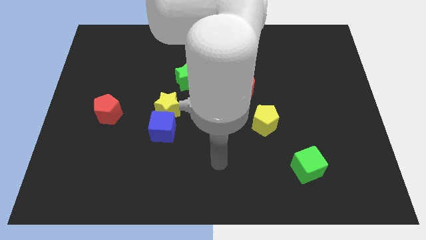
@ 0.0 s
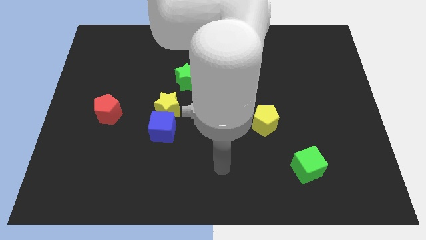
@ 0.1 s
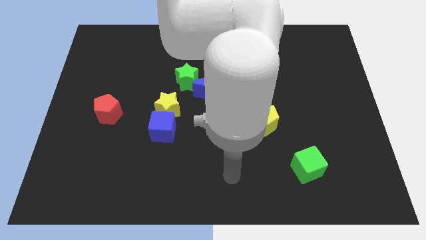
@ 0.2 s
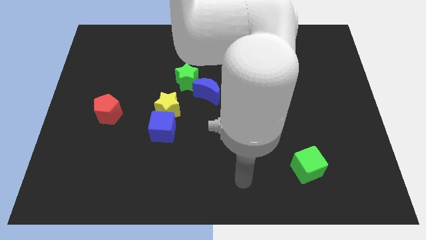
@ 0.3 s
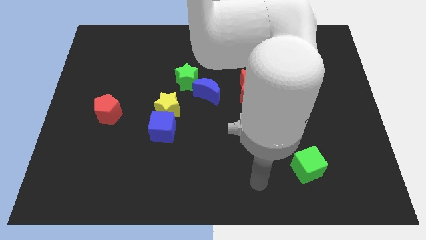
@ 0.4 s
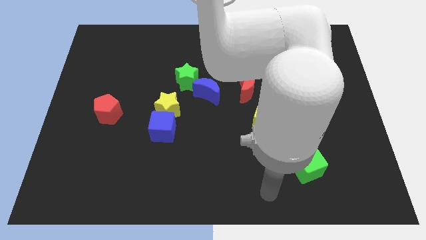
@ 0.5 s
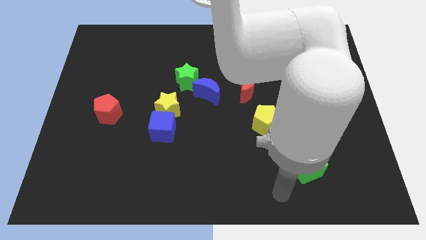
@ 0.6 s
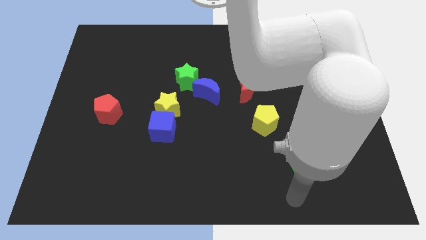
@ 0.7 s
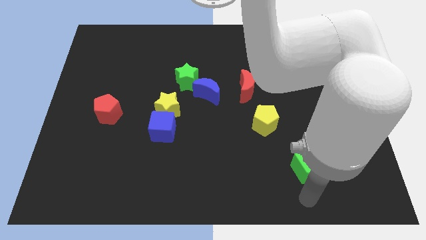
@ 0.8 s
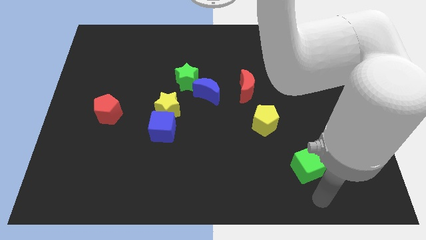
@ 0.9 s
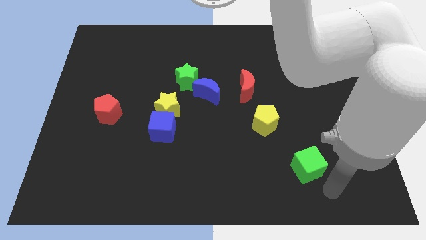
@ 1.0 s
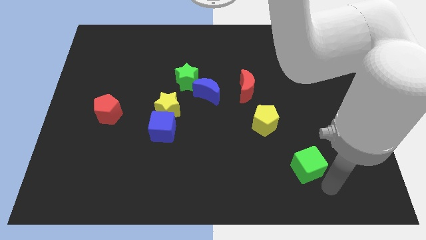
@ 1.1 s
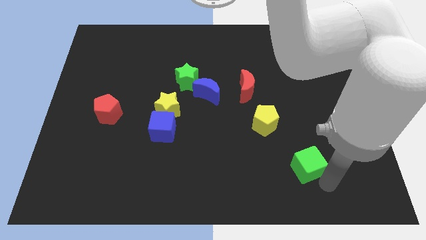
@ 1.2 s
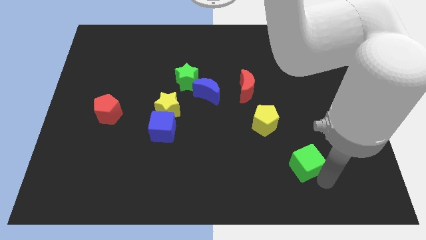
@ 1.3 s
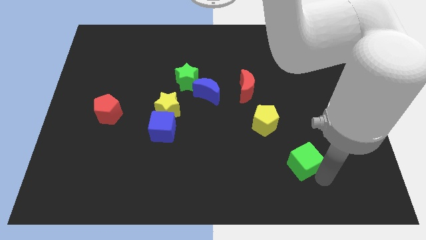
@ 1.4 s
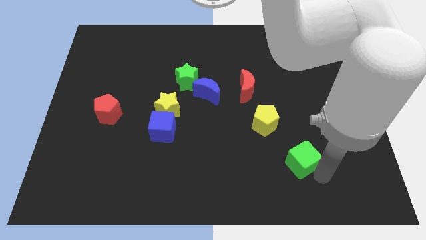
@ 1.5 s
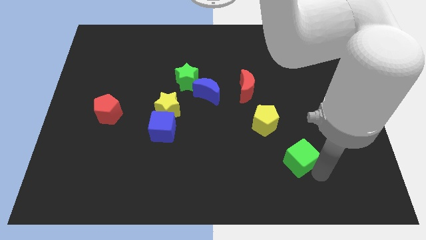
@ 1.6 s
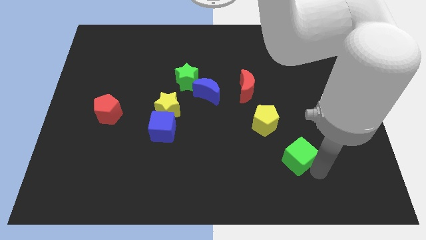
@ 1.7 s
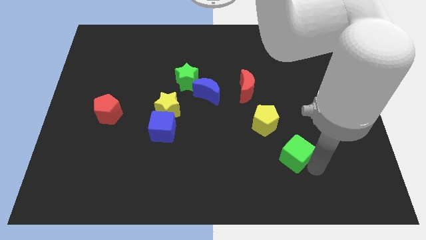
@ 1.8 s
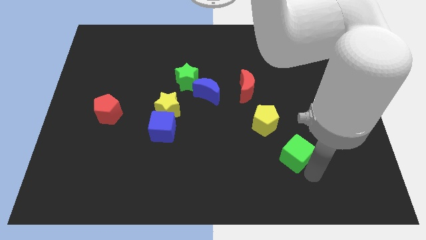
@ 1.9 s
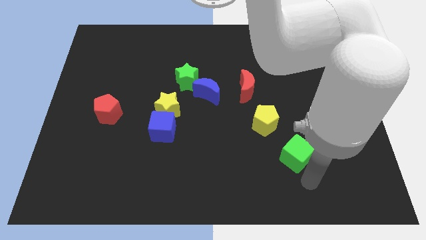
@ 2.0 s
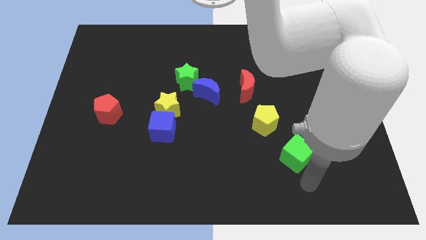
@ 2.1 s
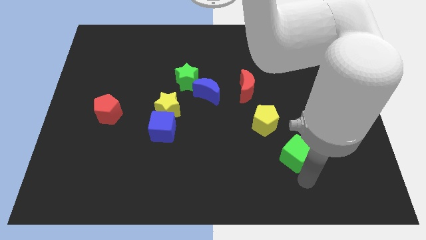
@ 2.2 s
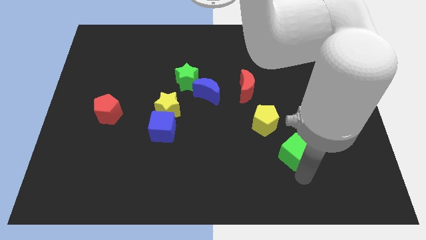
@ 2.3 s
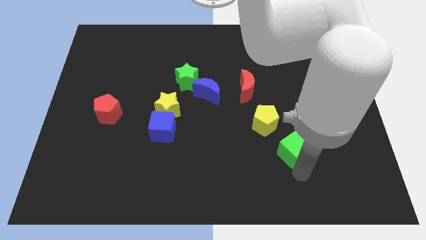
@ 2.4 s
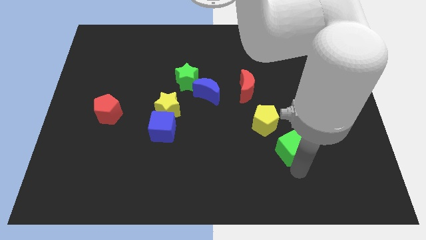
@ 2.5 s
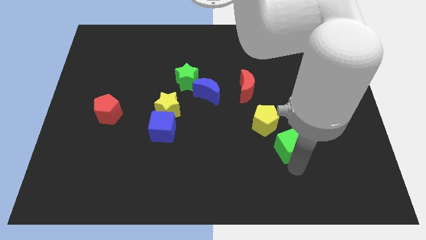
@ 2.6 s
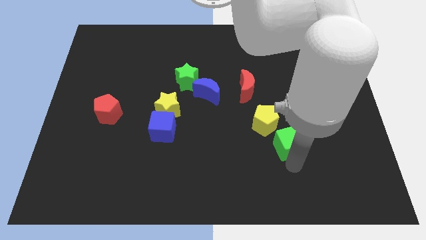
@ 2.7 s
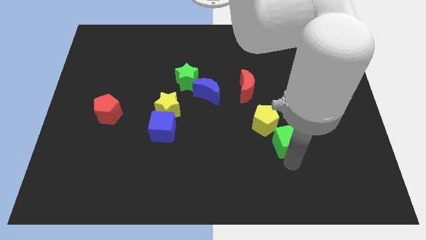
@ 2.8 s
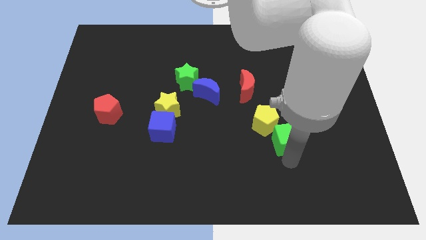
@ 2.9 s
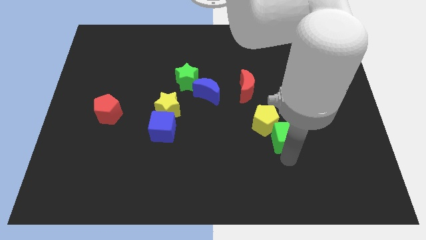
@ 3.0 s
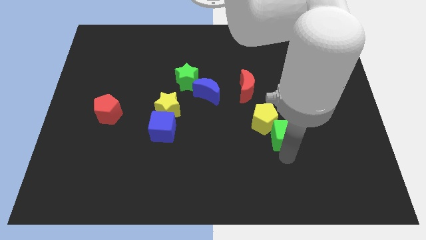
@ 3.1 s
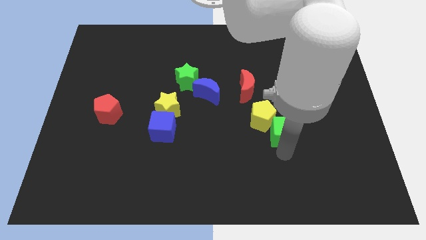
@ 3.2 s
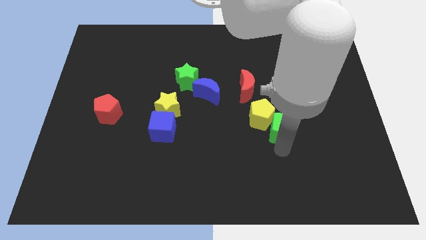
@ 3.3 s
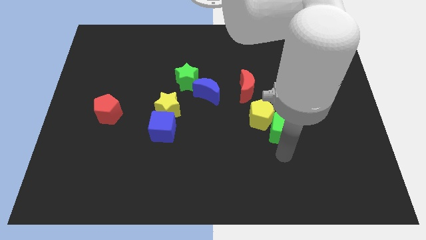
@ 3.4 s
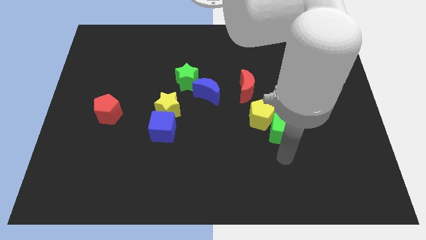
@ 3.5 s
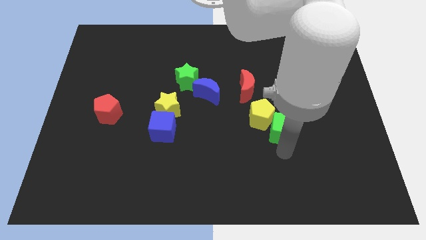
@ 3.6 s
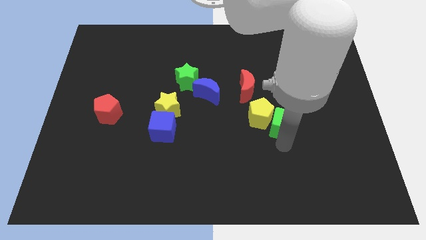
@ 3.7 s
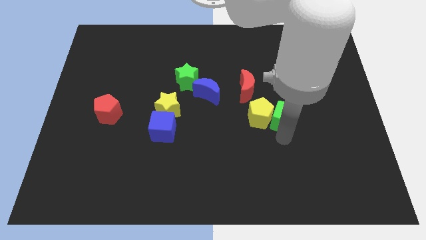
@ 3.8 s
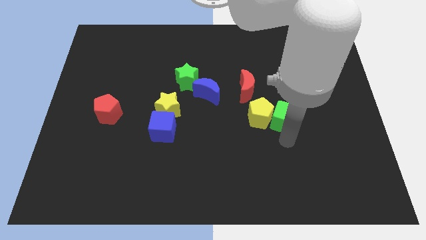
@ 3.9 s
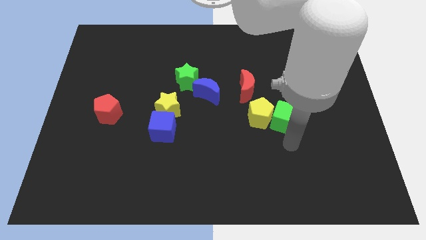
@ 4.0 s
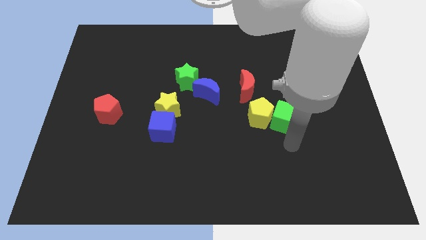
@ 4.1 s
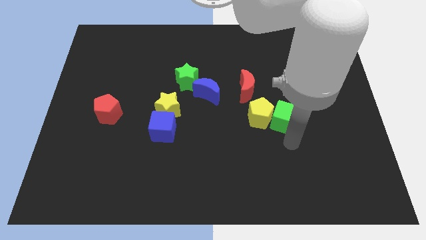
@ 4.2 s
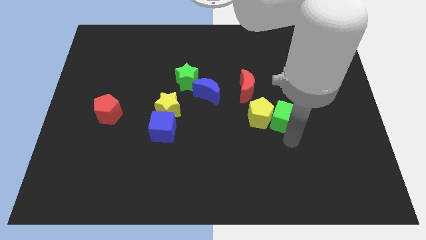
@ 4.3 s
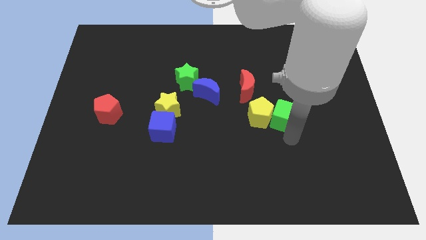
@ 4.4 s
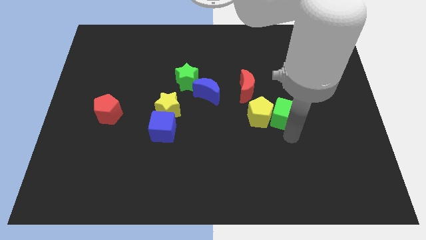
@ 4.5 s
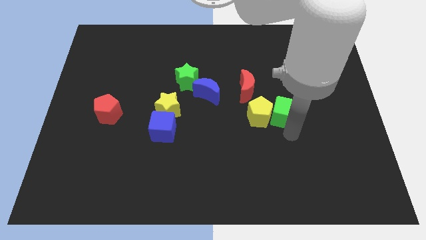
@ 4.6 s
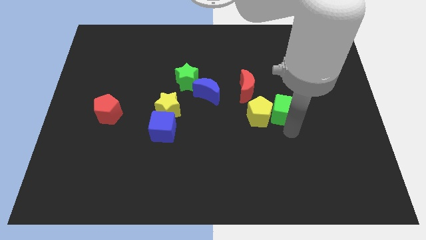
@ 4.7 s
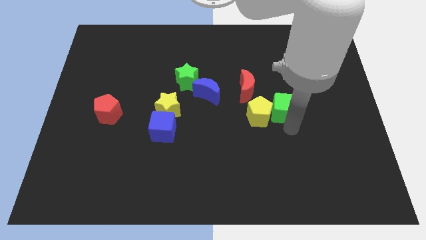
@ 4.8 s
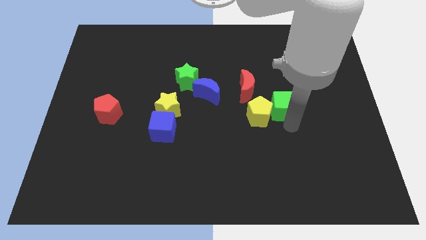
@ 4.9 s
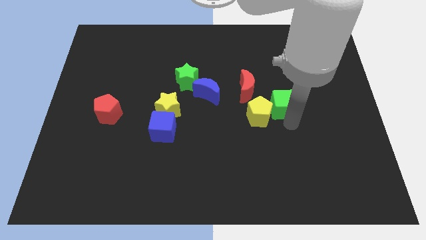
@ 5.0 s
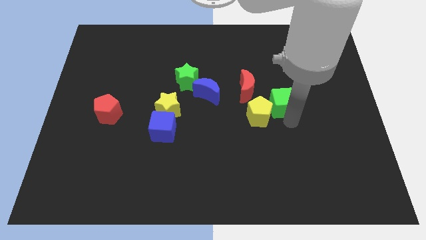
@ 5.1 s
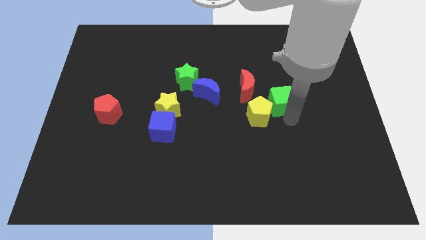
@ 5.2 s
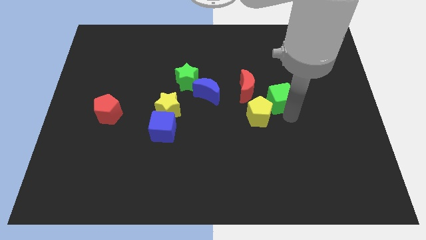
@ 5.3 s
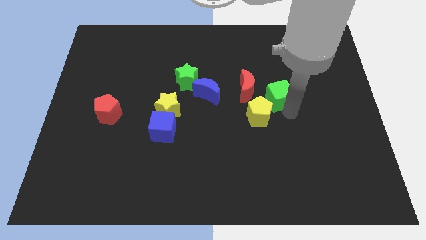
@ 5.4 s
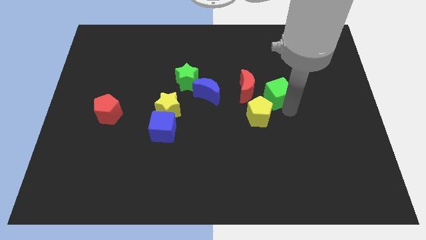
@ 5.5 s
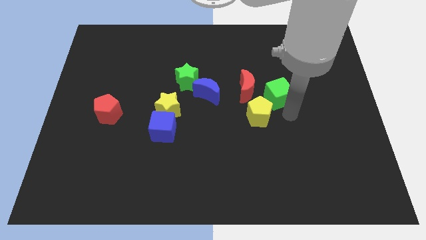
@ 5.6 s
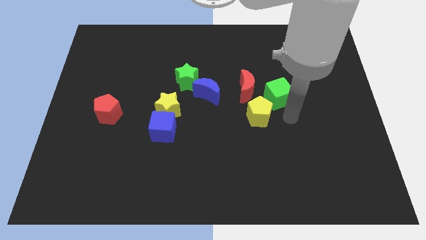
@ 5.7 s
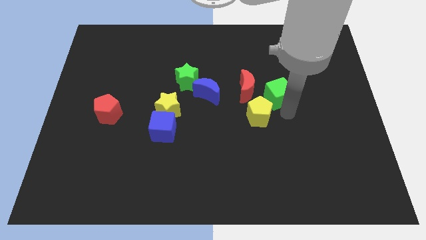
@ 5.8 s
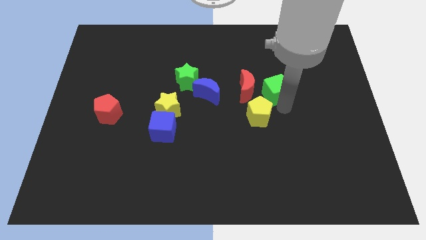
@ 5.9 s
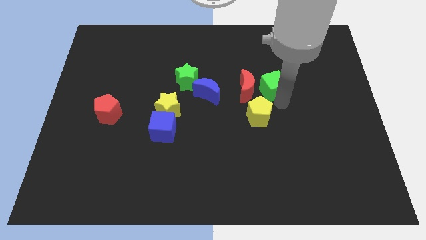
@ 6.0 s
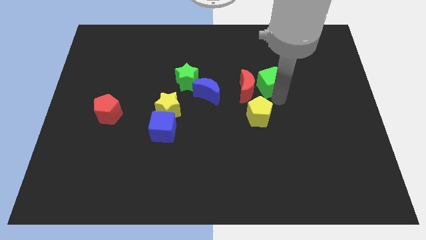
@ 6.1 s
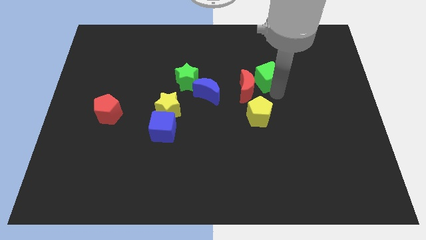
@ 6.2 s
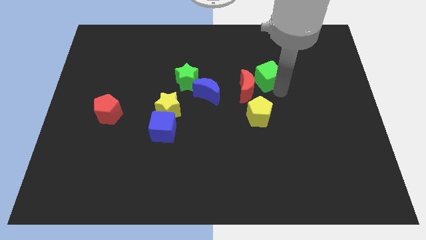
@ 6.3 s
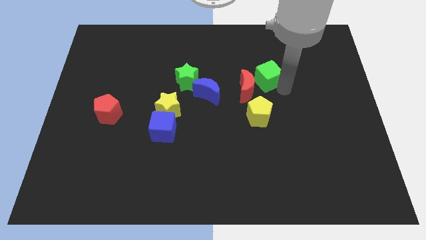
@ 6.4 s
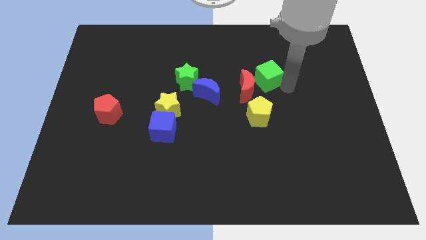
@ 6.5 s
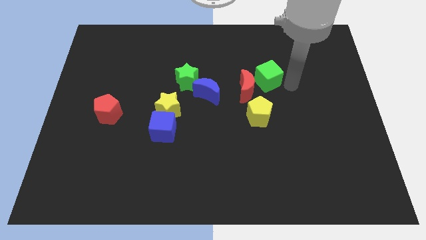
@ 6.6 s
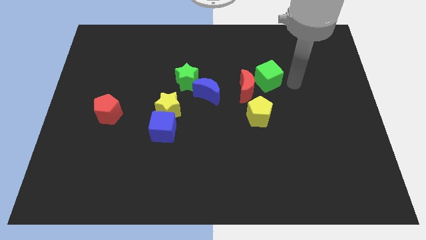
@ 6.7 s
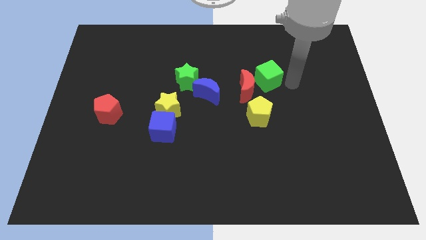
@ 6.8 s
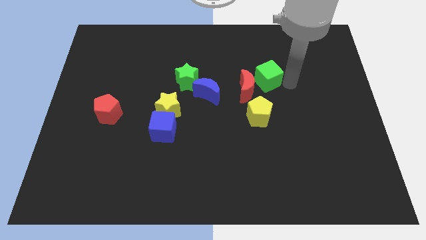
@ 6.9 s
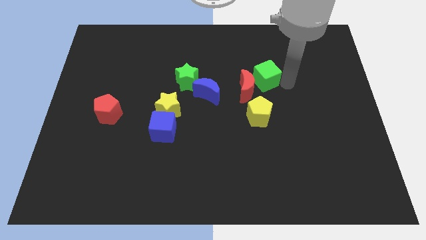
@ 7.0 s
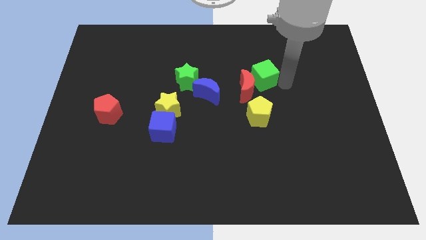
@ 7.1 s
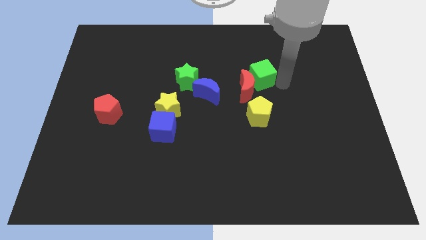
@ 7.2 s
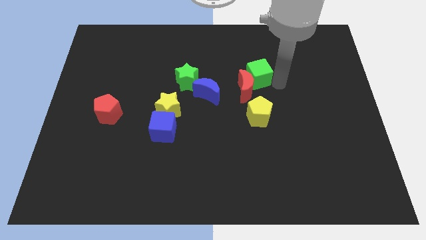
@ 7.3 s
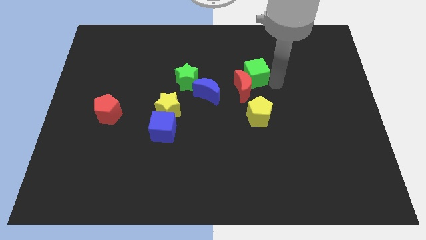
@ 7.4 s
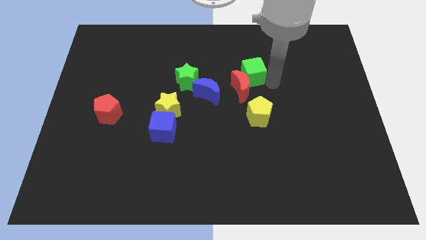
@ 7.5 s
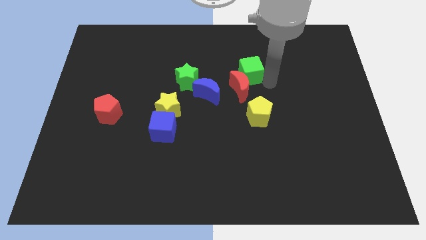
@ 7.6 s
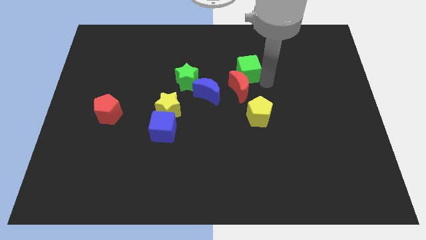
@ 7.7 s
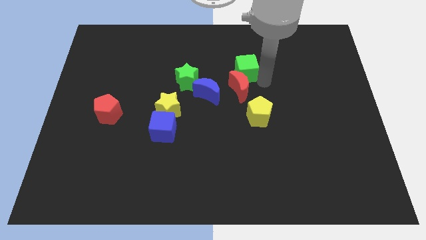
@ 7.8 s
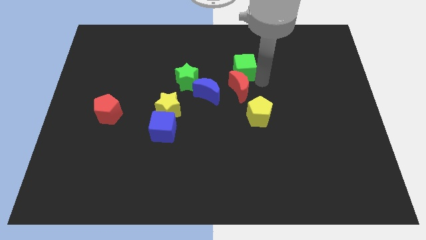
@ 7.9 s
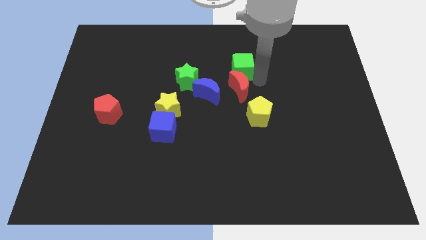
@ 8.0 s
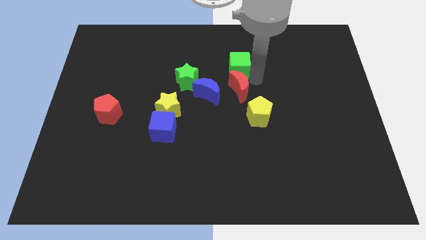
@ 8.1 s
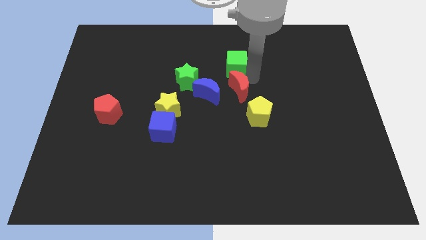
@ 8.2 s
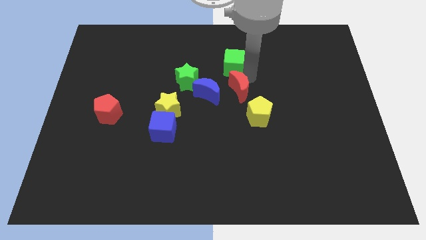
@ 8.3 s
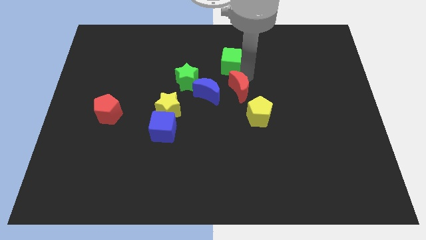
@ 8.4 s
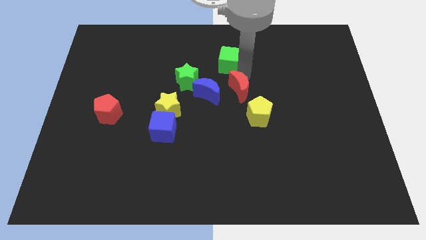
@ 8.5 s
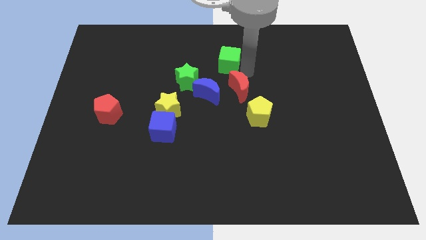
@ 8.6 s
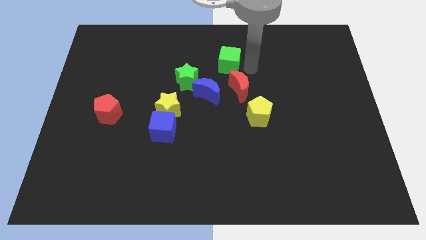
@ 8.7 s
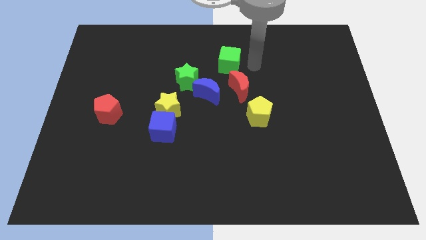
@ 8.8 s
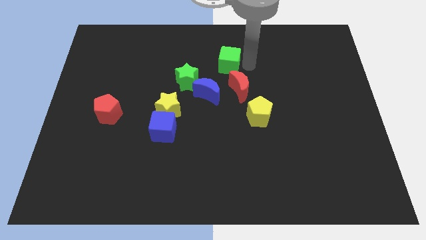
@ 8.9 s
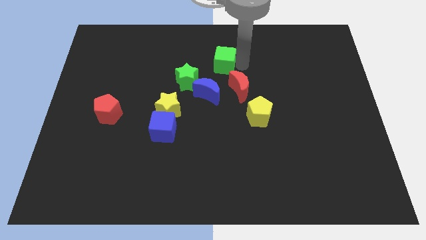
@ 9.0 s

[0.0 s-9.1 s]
slide the green cube above the blue moon
